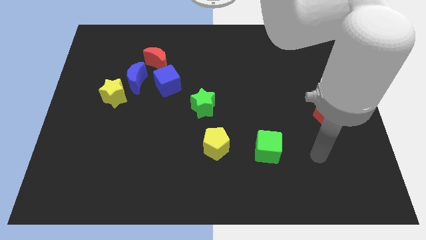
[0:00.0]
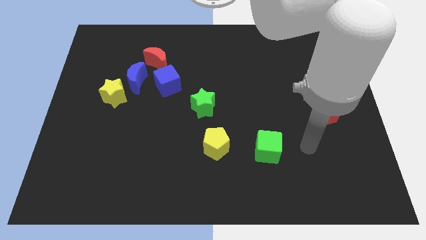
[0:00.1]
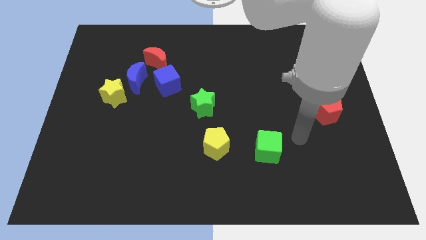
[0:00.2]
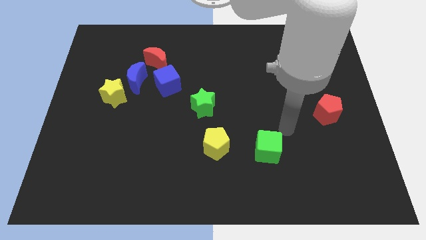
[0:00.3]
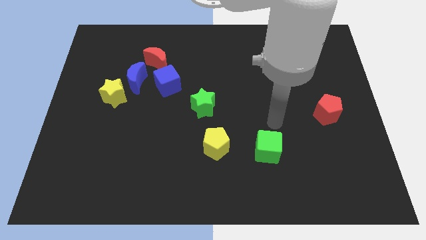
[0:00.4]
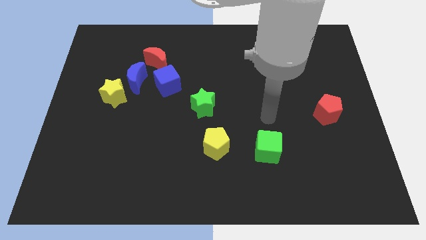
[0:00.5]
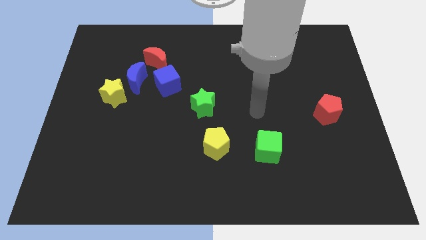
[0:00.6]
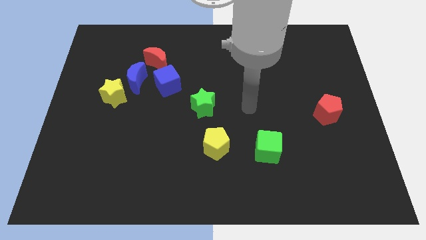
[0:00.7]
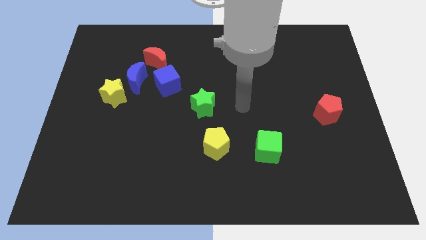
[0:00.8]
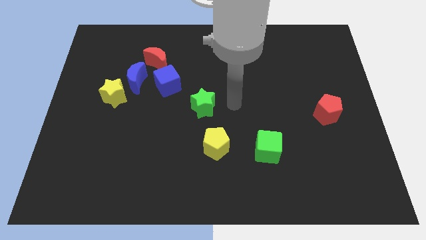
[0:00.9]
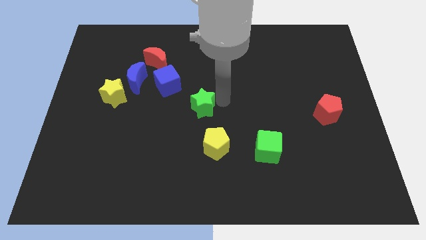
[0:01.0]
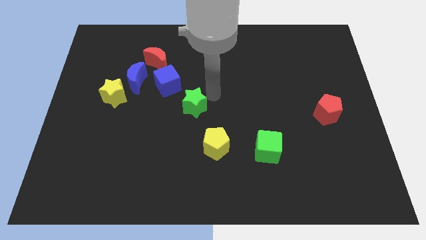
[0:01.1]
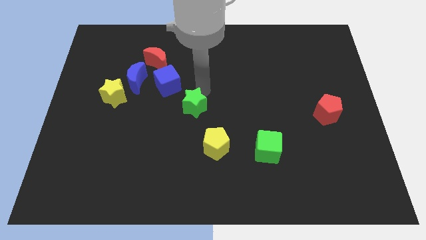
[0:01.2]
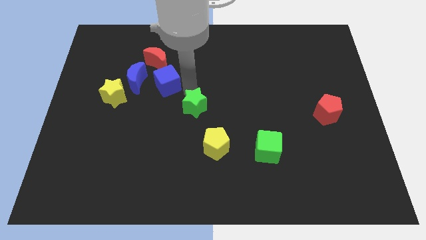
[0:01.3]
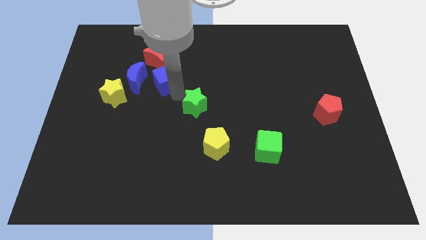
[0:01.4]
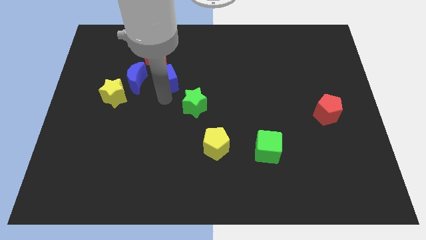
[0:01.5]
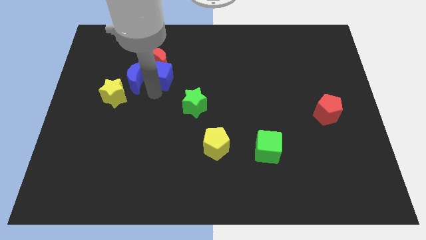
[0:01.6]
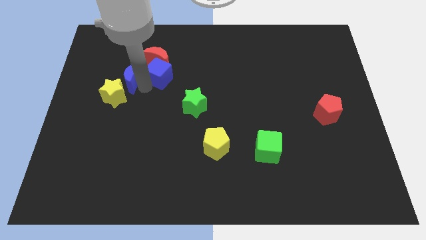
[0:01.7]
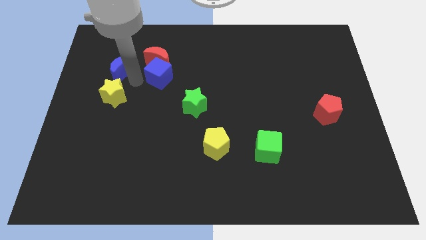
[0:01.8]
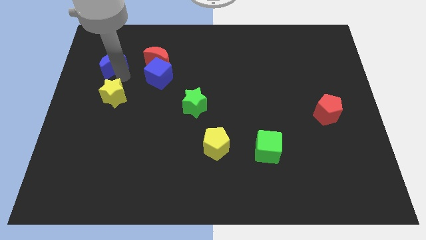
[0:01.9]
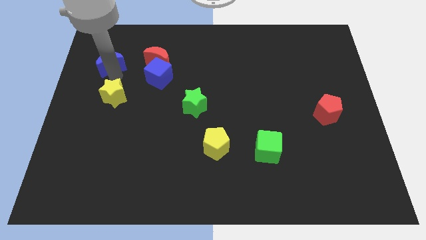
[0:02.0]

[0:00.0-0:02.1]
separate the yellow star from the blue moon

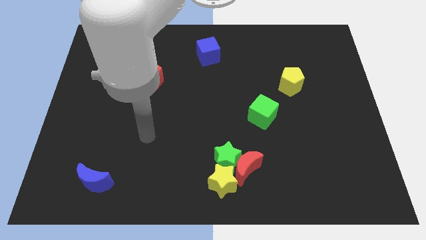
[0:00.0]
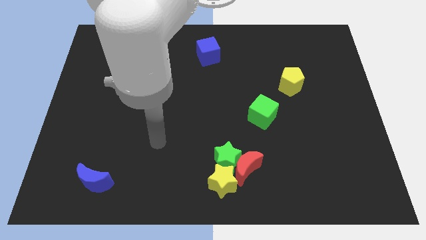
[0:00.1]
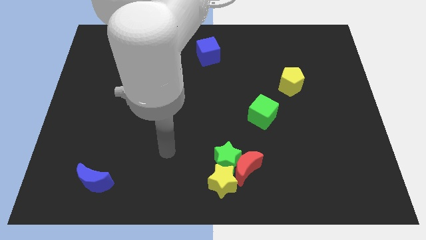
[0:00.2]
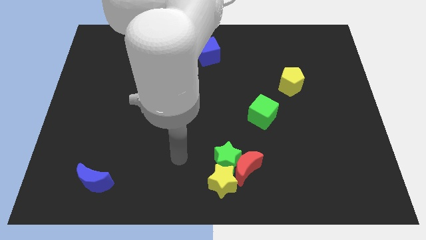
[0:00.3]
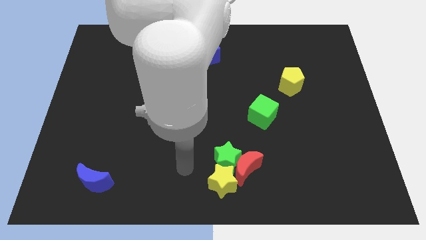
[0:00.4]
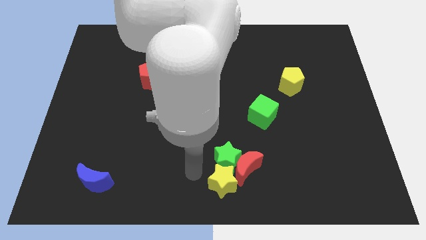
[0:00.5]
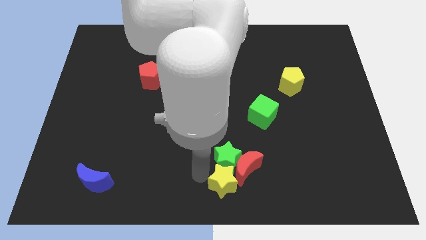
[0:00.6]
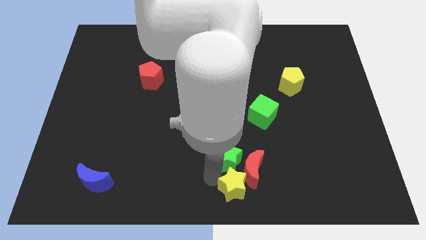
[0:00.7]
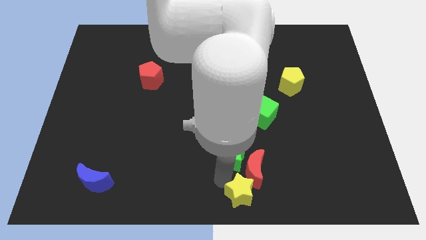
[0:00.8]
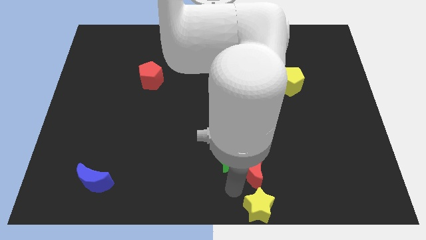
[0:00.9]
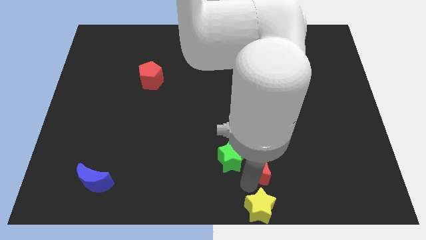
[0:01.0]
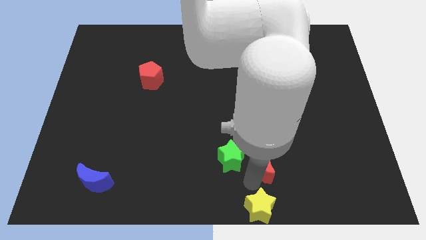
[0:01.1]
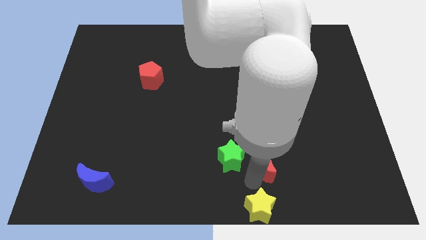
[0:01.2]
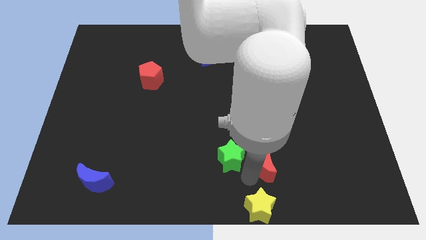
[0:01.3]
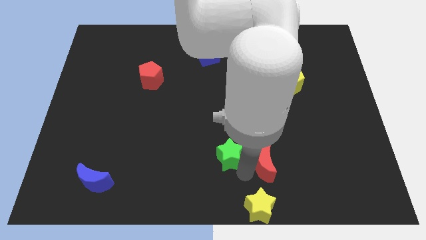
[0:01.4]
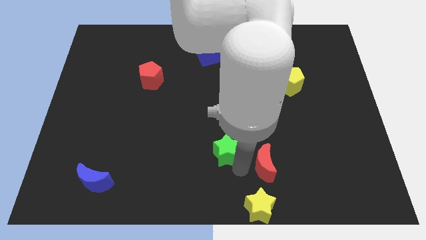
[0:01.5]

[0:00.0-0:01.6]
pull the green star apart from the red moon and yellow star

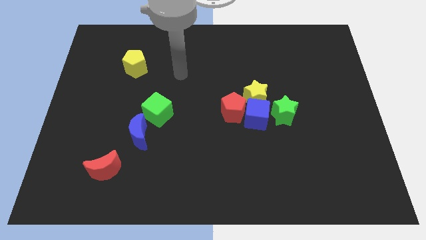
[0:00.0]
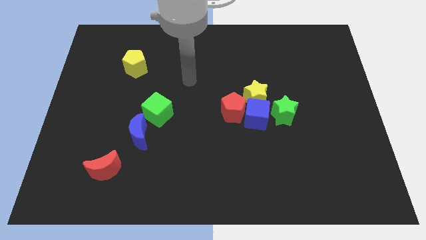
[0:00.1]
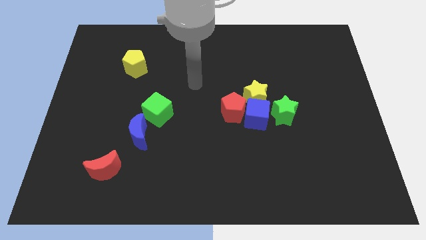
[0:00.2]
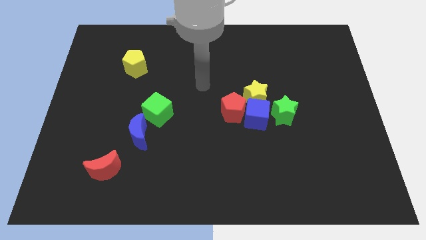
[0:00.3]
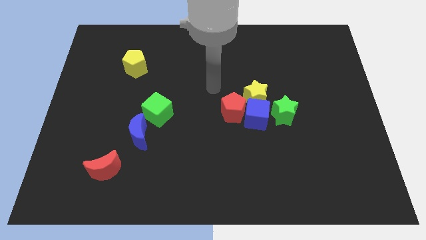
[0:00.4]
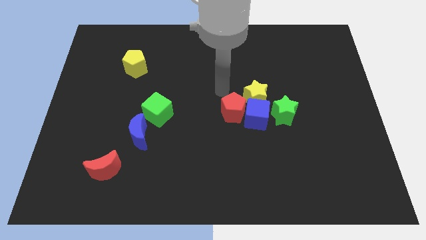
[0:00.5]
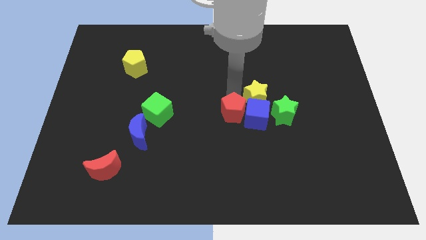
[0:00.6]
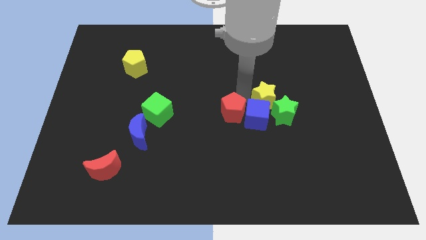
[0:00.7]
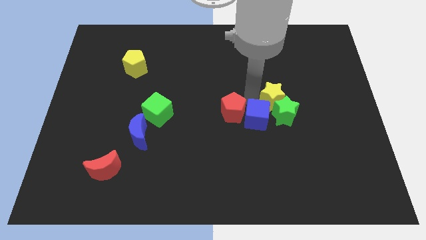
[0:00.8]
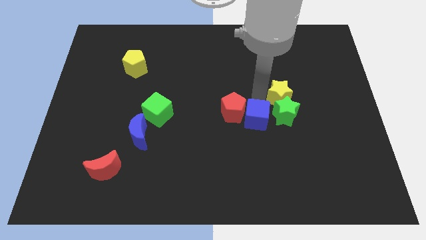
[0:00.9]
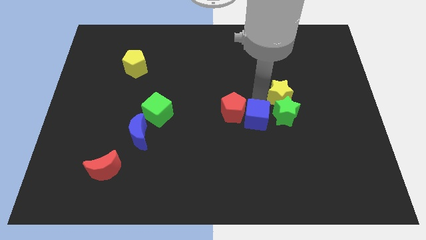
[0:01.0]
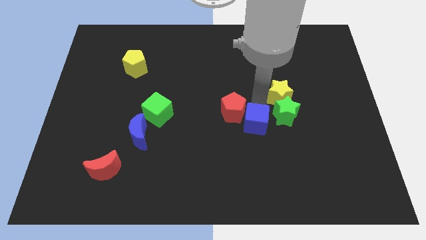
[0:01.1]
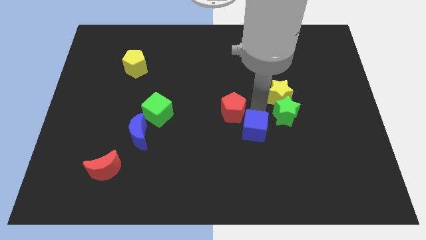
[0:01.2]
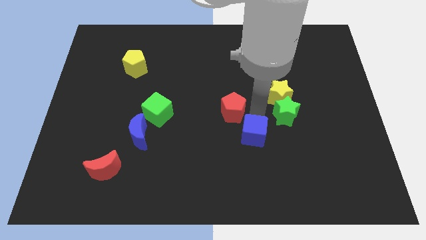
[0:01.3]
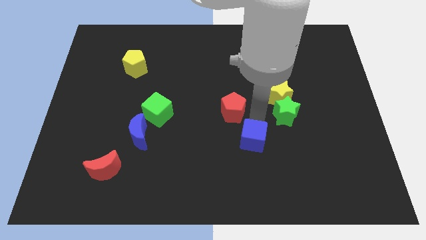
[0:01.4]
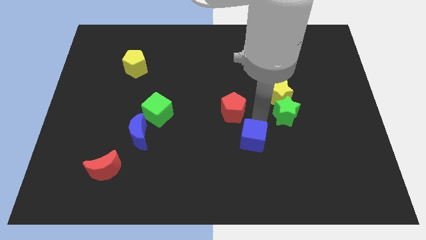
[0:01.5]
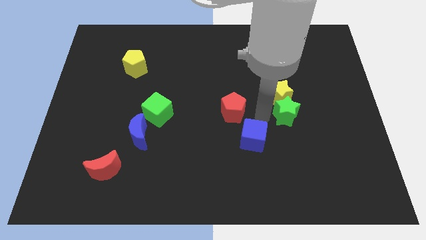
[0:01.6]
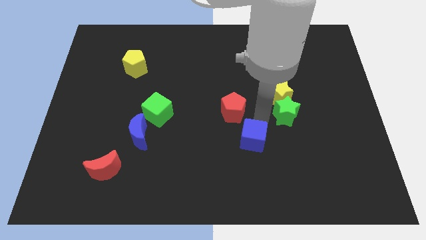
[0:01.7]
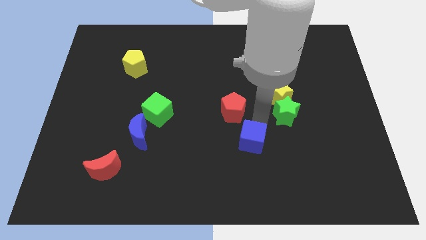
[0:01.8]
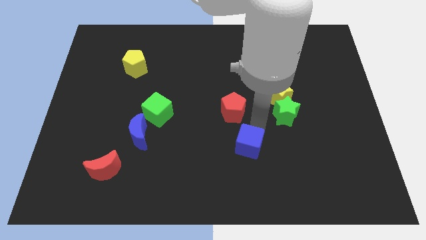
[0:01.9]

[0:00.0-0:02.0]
pull the blue cube apart from the group

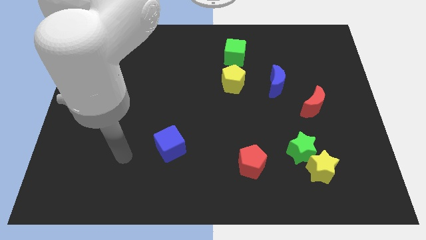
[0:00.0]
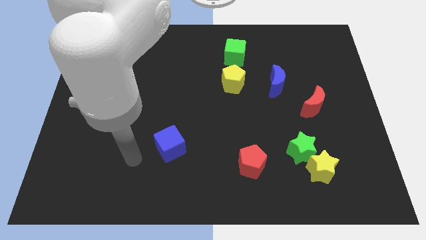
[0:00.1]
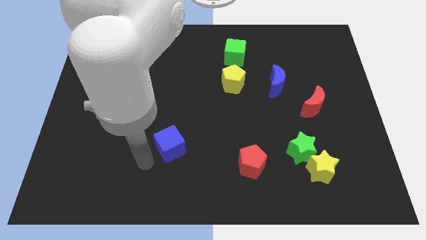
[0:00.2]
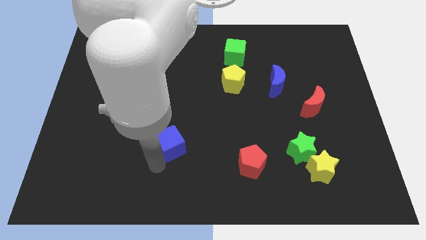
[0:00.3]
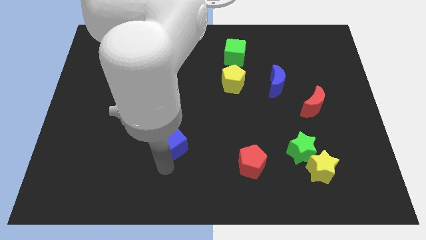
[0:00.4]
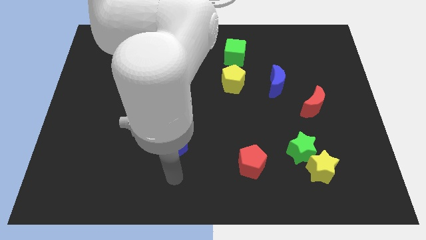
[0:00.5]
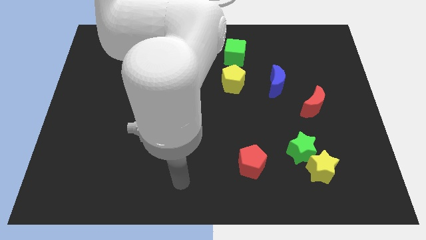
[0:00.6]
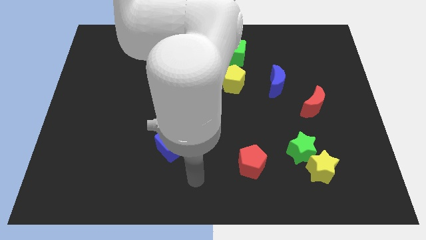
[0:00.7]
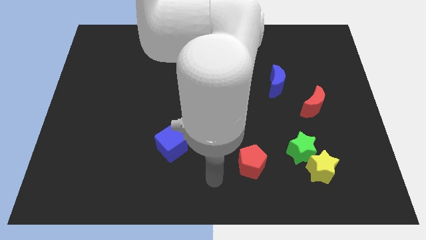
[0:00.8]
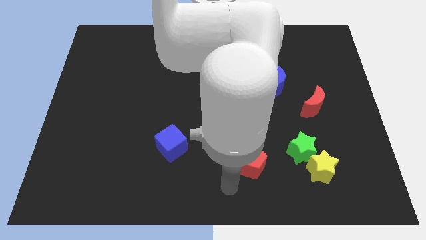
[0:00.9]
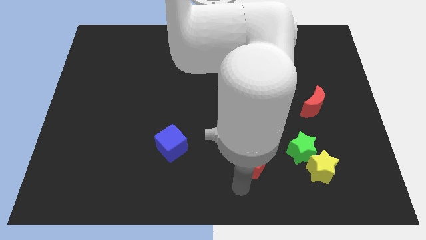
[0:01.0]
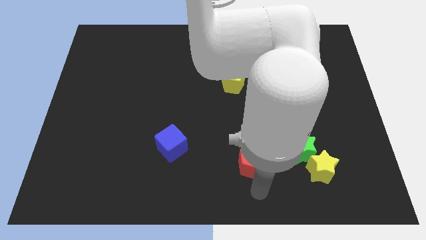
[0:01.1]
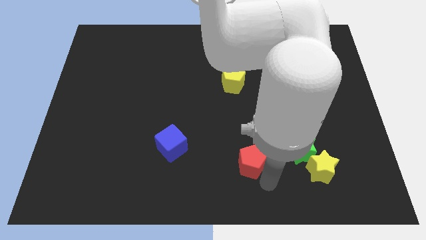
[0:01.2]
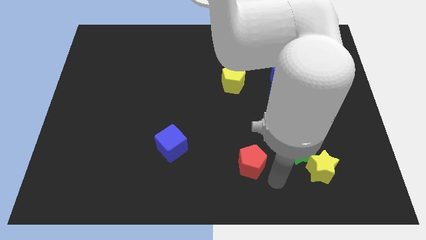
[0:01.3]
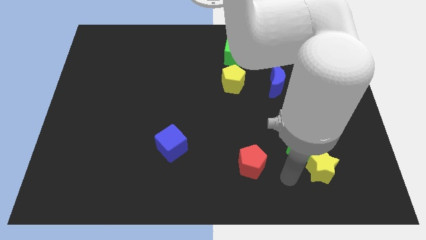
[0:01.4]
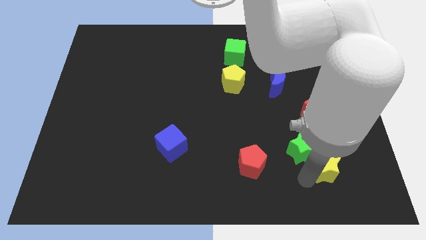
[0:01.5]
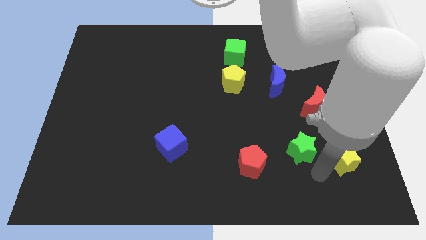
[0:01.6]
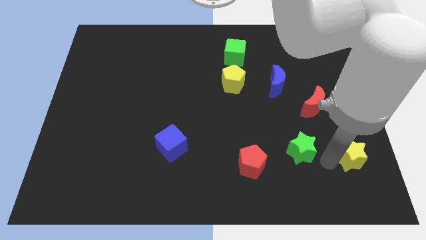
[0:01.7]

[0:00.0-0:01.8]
separate the green star from the yellow star

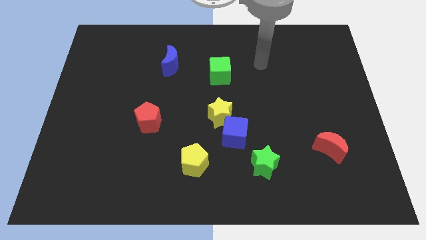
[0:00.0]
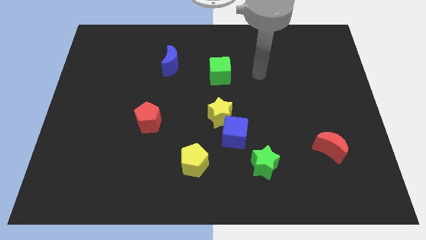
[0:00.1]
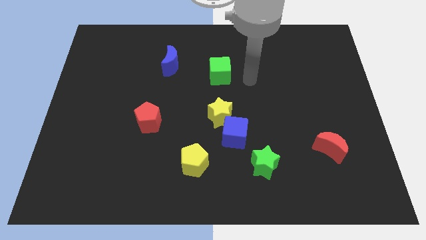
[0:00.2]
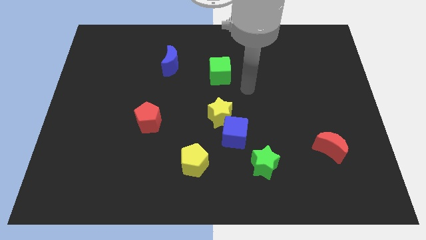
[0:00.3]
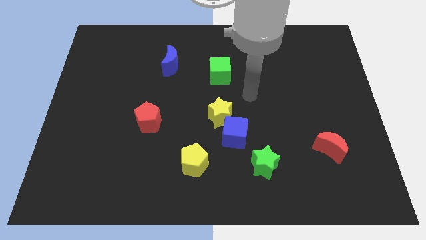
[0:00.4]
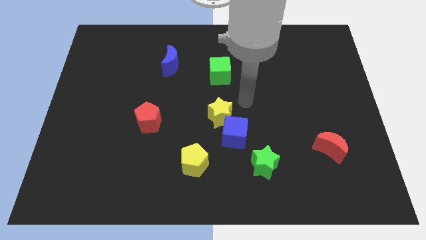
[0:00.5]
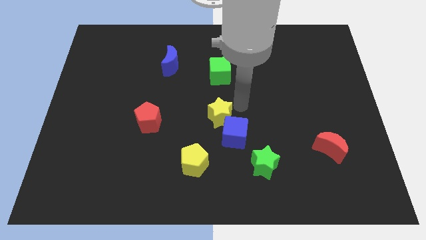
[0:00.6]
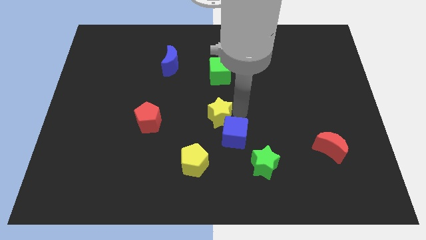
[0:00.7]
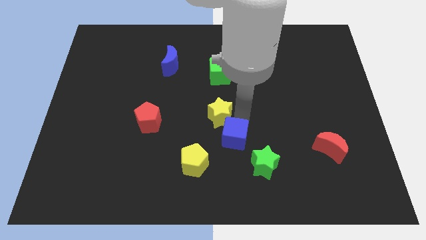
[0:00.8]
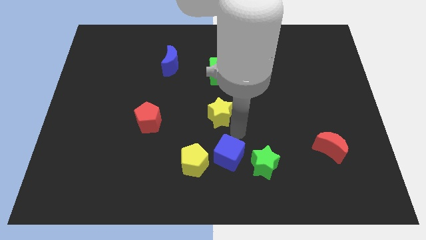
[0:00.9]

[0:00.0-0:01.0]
separate the yellow star from the blue cube

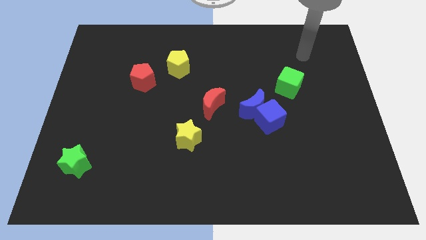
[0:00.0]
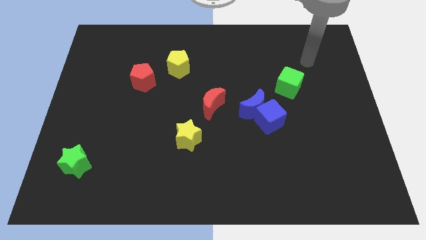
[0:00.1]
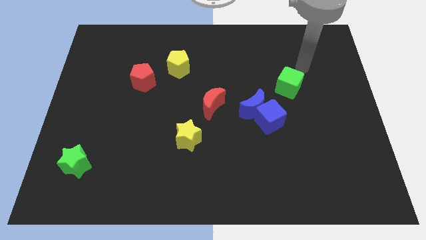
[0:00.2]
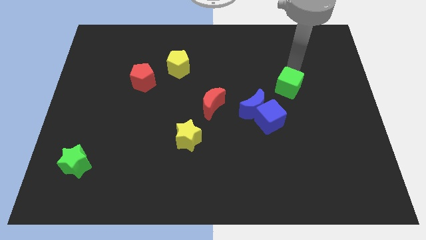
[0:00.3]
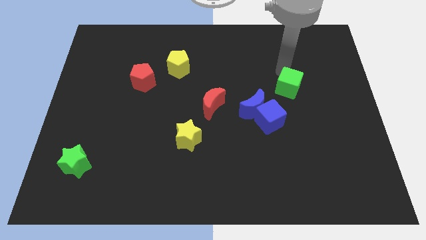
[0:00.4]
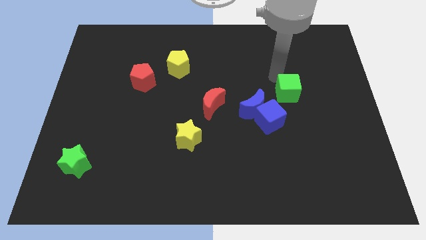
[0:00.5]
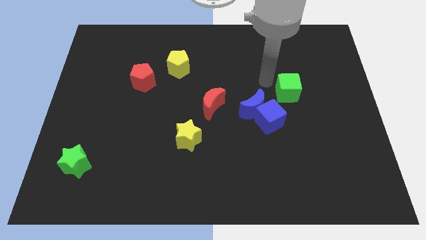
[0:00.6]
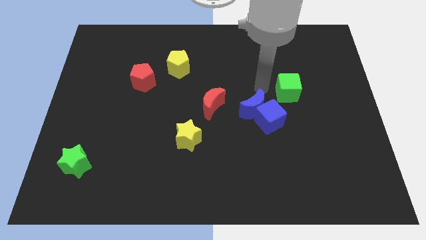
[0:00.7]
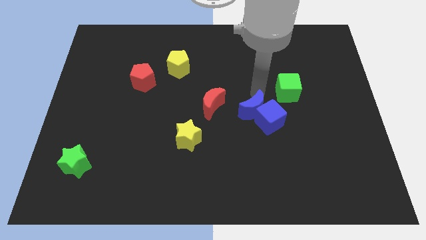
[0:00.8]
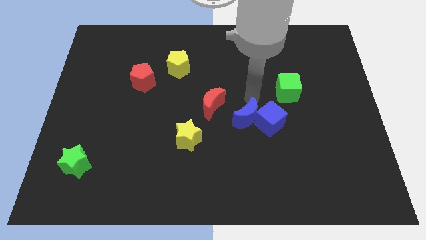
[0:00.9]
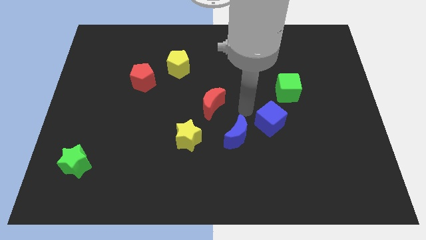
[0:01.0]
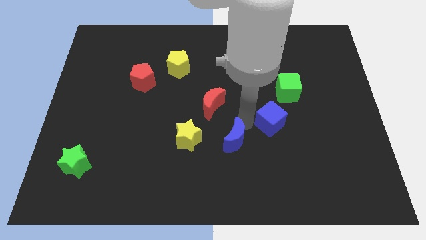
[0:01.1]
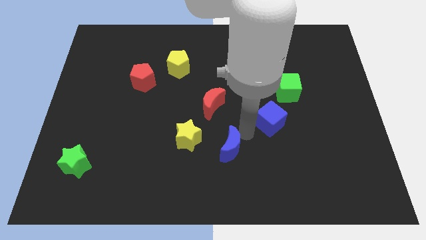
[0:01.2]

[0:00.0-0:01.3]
move the blue cube away from the blue moon